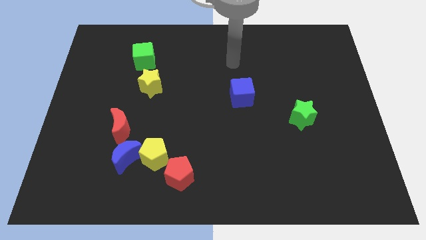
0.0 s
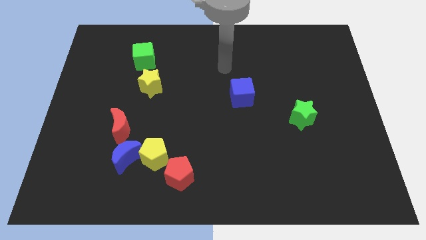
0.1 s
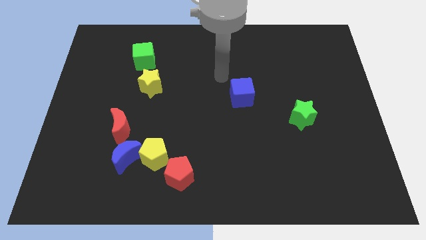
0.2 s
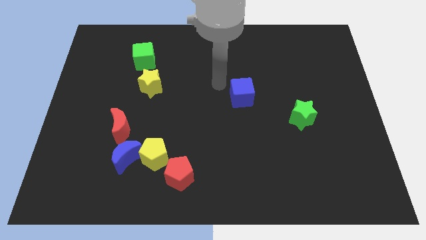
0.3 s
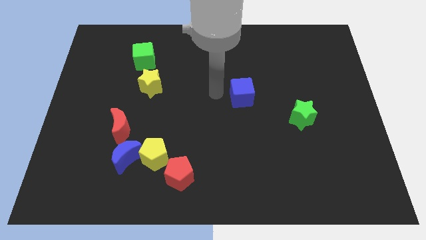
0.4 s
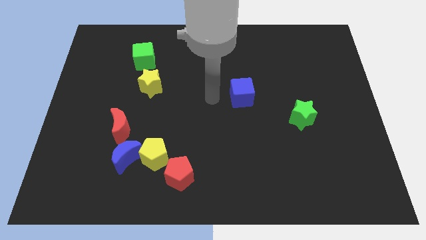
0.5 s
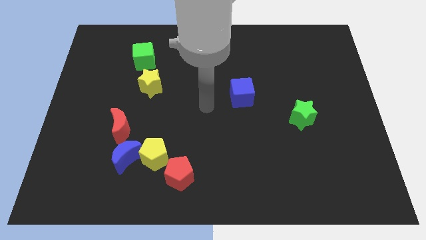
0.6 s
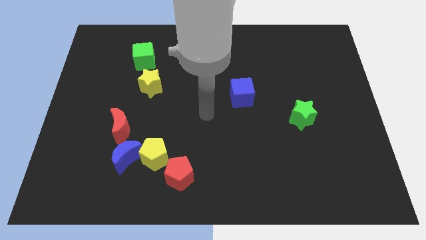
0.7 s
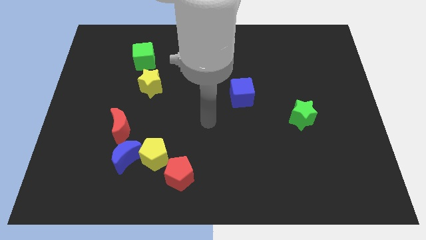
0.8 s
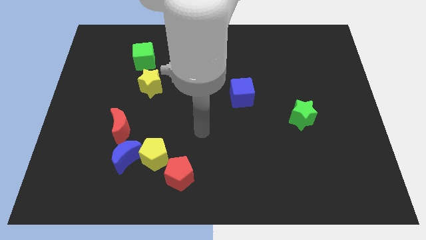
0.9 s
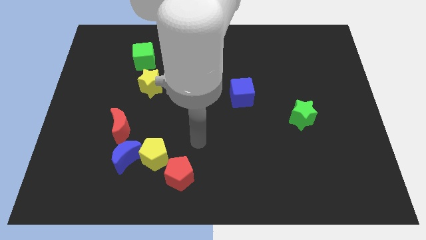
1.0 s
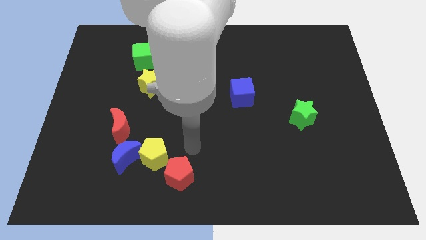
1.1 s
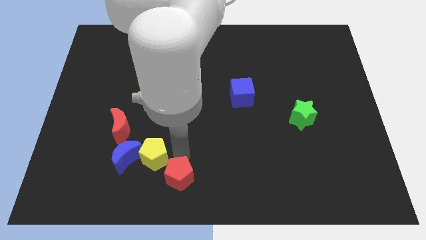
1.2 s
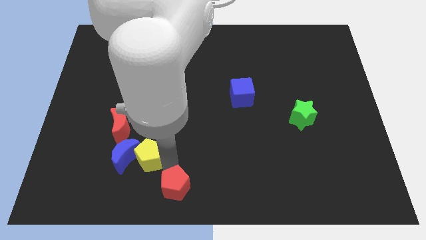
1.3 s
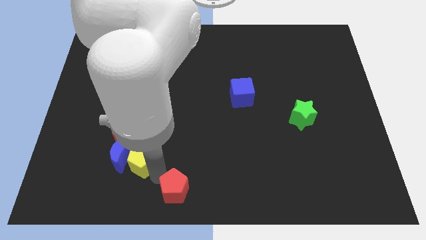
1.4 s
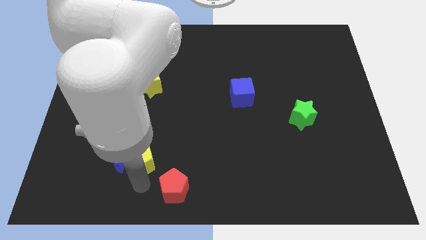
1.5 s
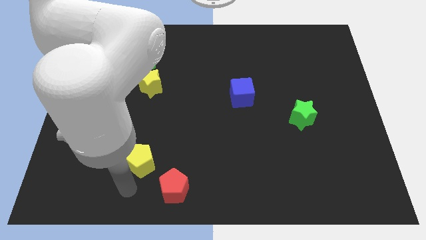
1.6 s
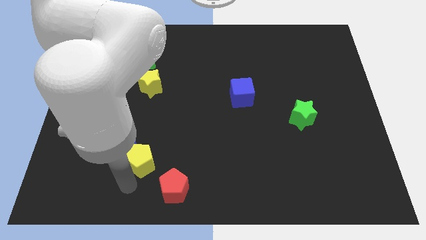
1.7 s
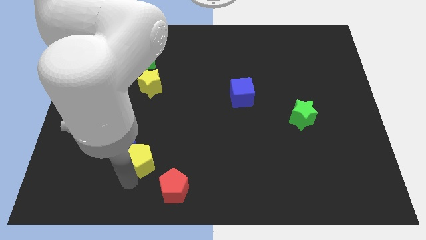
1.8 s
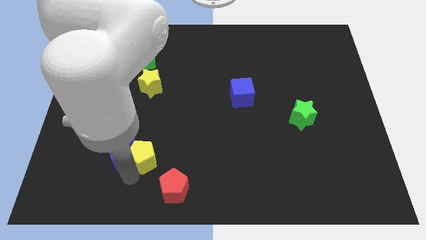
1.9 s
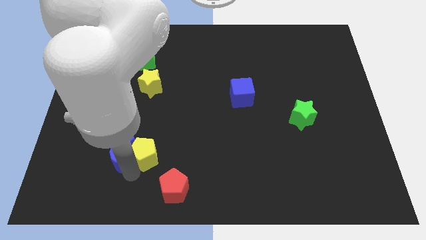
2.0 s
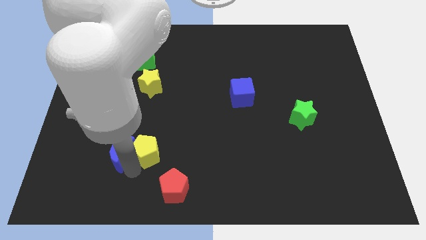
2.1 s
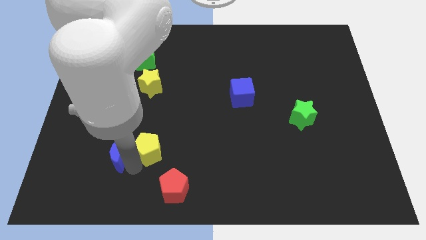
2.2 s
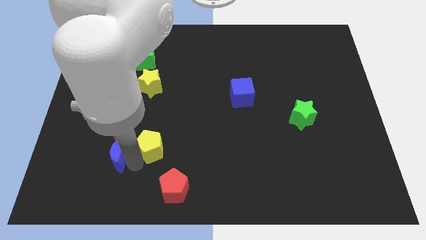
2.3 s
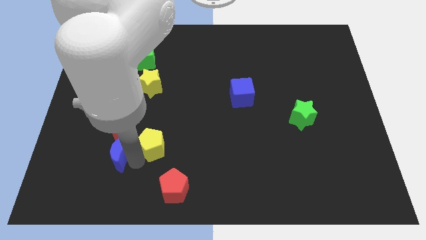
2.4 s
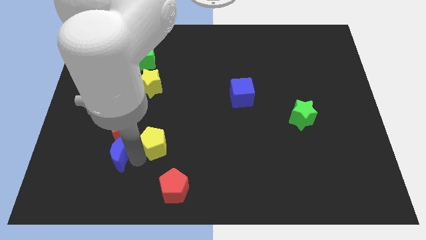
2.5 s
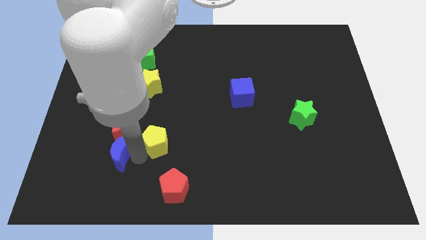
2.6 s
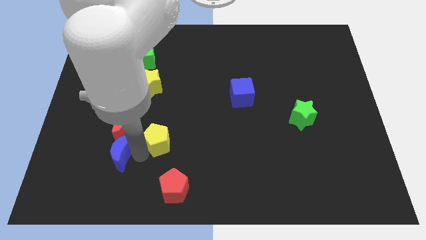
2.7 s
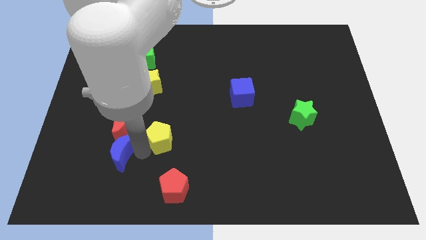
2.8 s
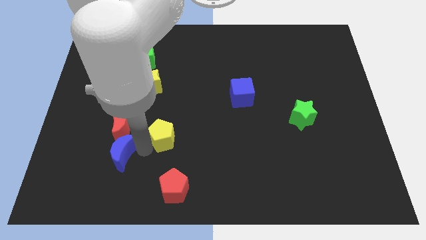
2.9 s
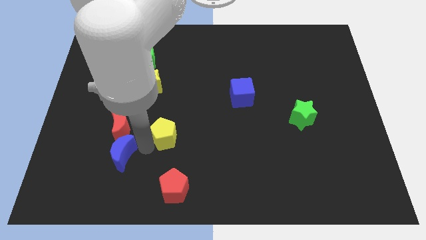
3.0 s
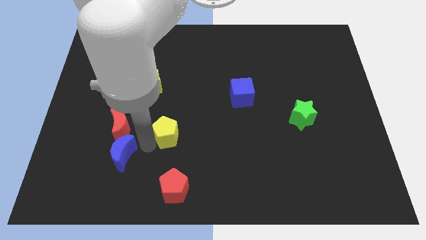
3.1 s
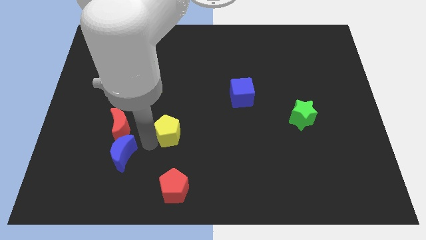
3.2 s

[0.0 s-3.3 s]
pull the yellow pentagon apart from the blue moon and red pentagon

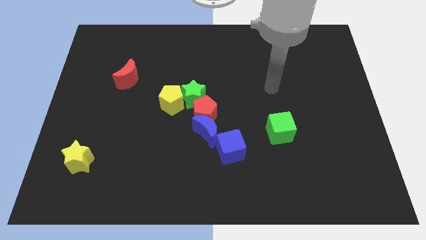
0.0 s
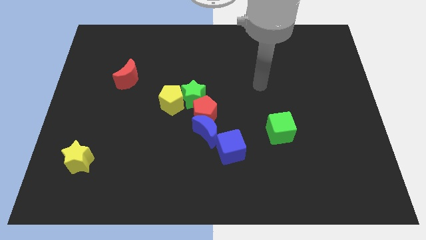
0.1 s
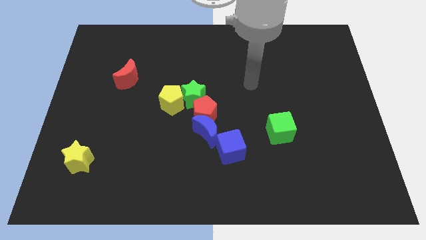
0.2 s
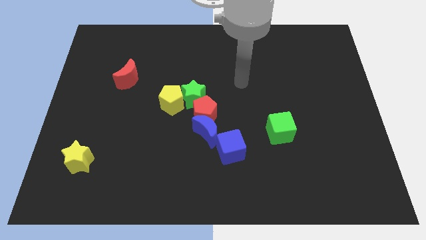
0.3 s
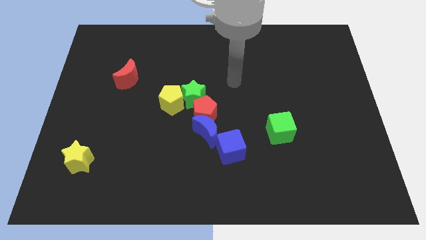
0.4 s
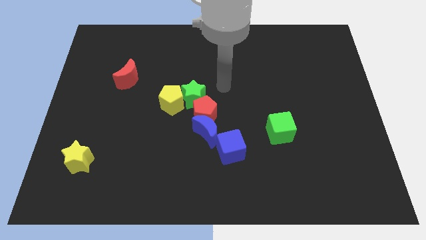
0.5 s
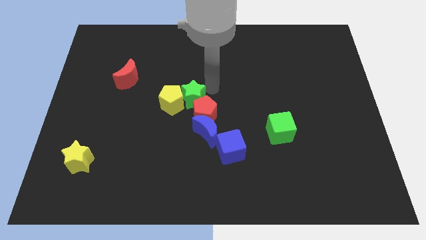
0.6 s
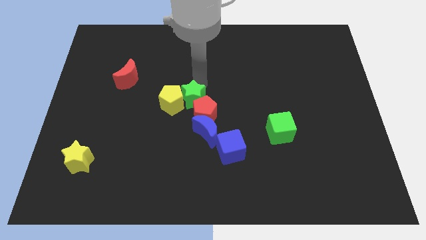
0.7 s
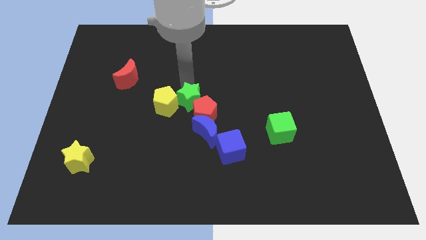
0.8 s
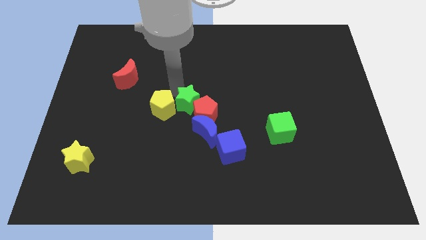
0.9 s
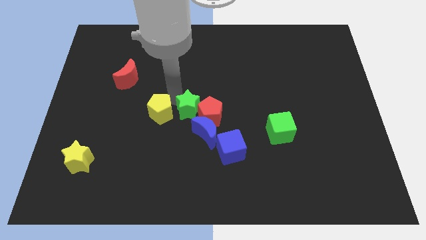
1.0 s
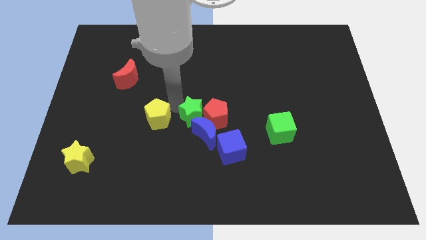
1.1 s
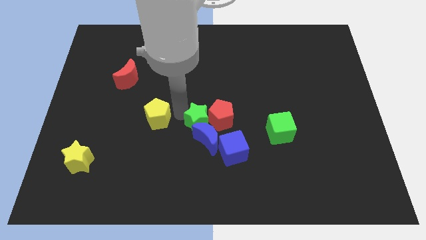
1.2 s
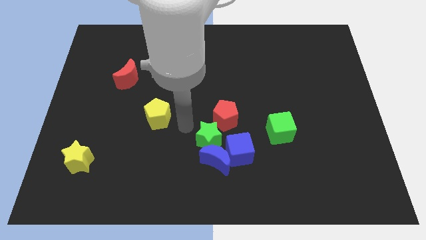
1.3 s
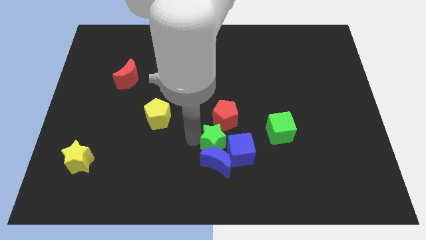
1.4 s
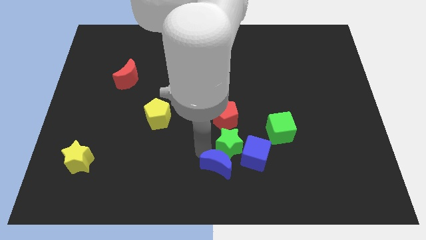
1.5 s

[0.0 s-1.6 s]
separate the green star from the yellow pentagon and red pentagon

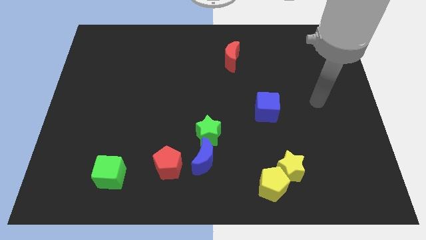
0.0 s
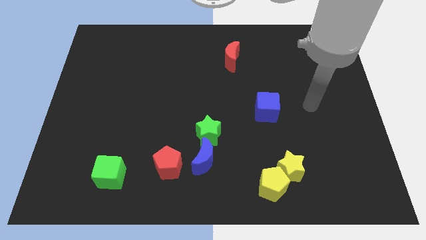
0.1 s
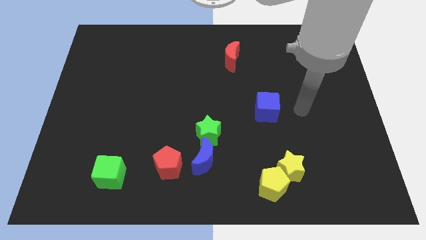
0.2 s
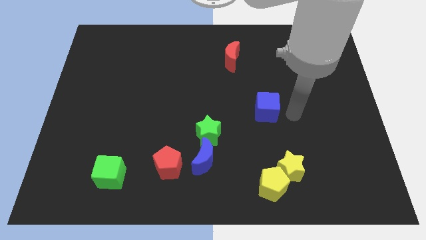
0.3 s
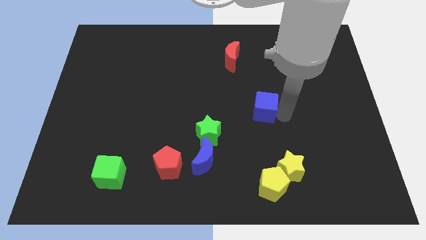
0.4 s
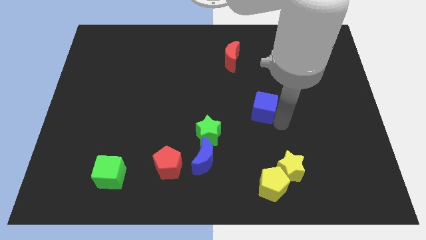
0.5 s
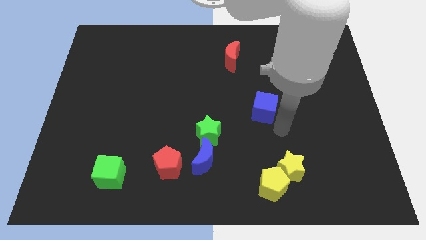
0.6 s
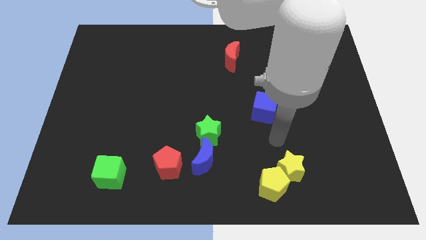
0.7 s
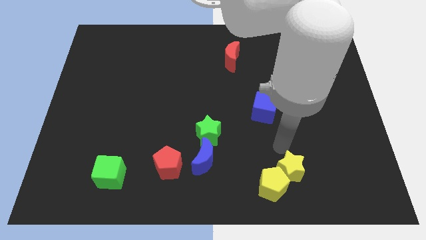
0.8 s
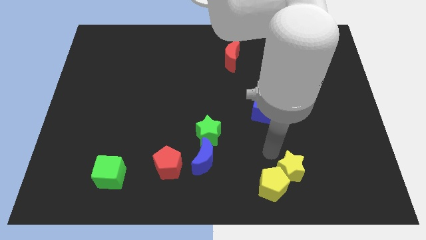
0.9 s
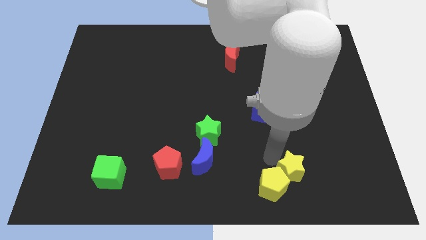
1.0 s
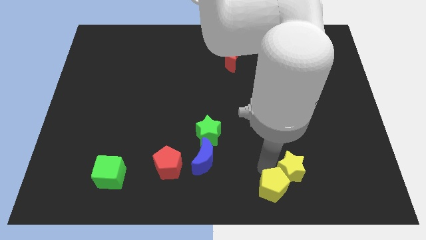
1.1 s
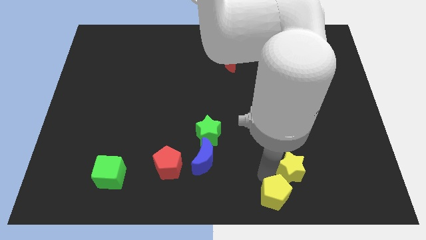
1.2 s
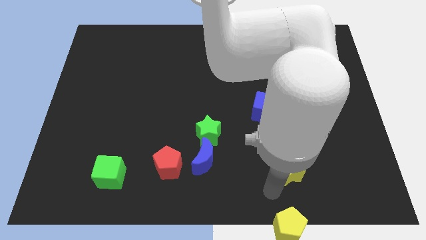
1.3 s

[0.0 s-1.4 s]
separate the yellow star from the yellow pentagon

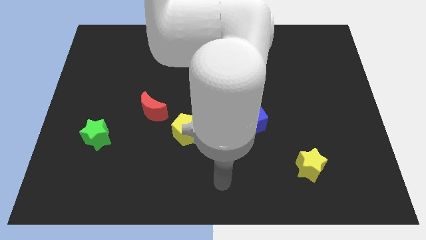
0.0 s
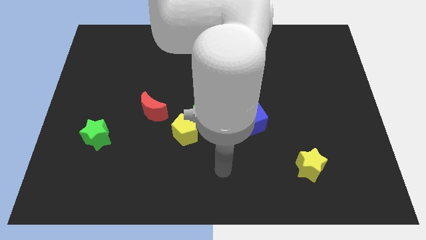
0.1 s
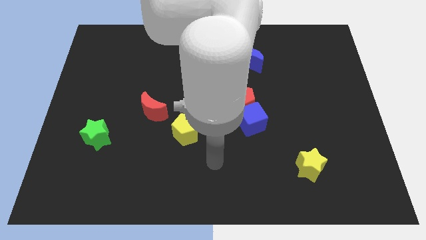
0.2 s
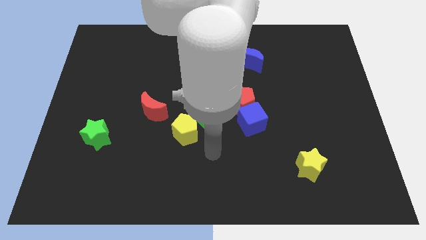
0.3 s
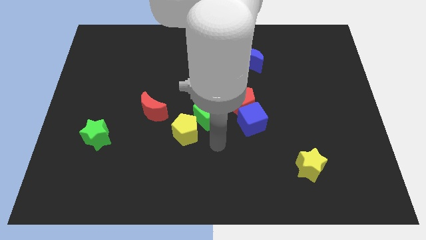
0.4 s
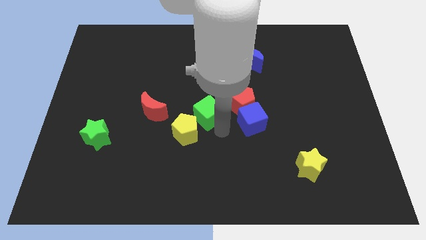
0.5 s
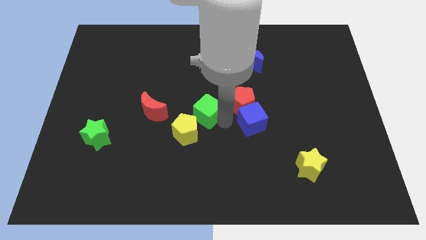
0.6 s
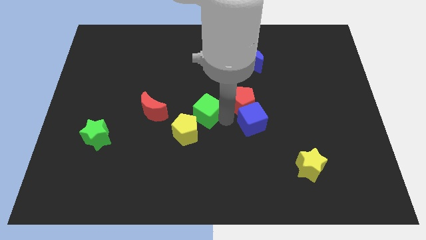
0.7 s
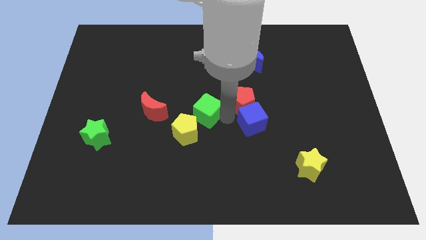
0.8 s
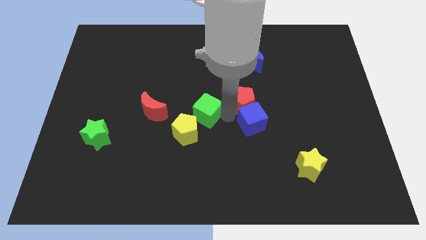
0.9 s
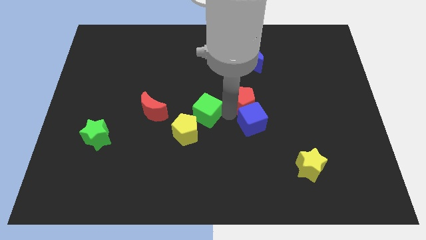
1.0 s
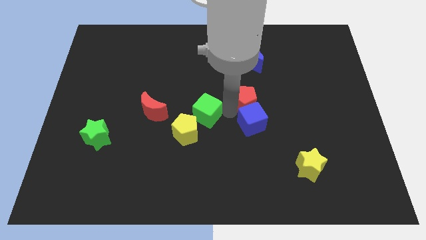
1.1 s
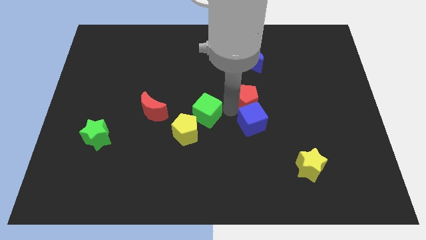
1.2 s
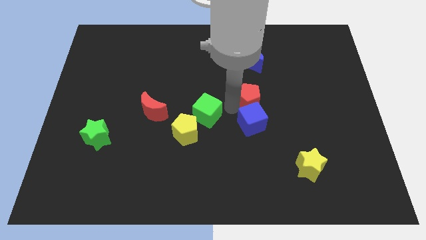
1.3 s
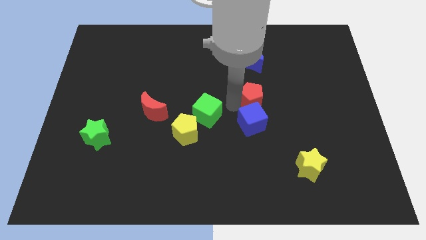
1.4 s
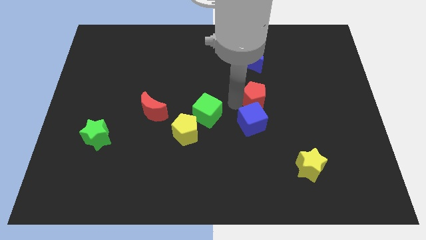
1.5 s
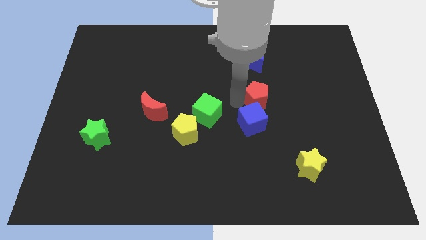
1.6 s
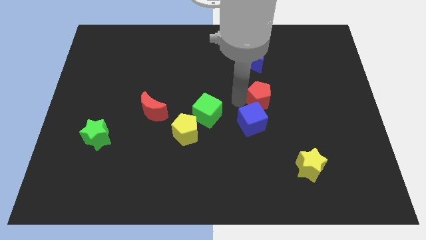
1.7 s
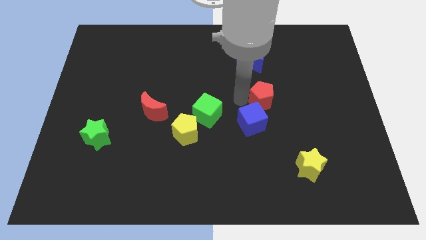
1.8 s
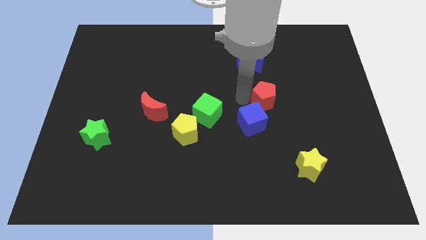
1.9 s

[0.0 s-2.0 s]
separate the red pentagon from the blue cube and green cube

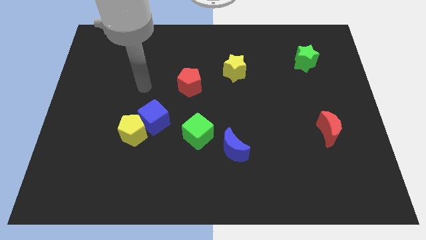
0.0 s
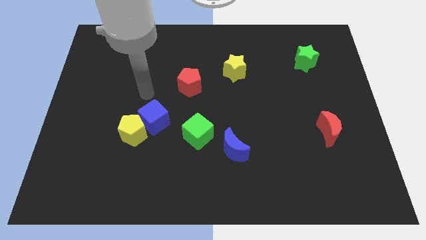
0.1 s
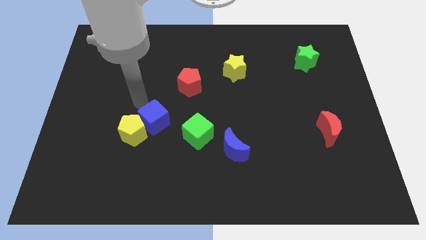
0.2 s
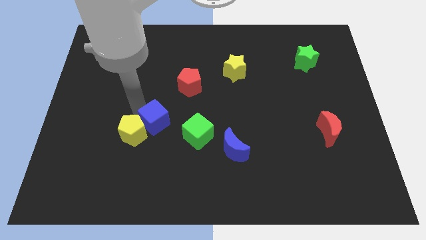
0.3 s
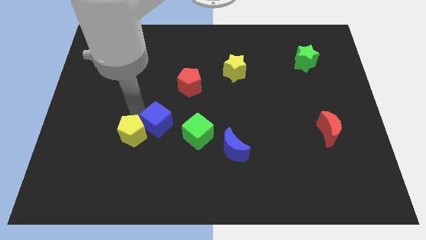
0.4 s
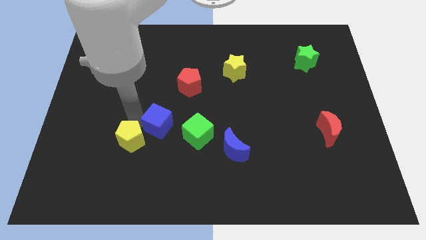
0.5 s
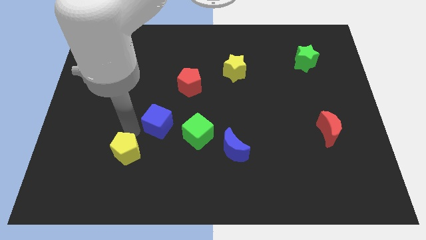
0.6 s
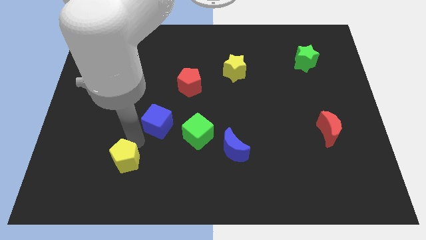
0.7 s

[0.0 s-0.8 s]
separate the blue cube from the yellow pentagon
